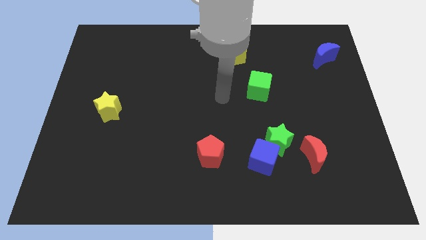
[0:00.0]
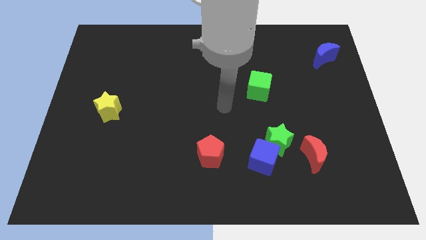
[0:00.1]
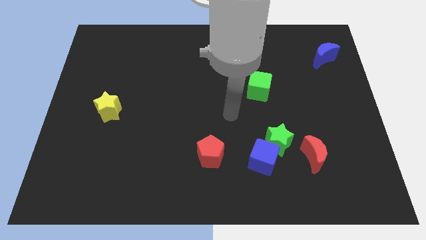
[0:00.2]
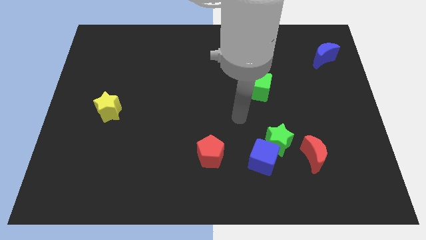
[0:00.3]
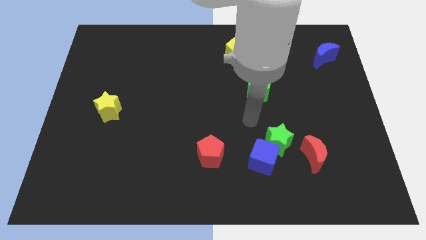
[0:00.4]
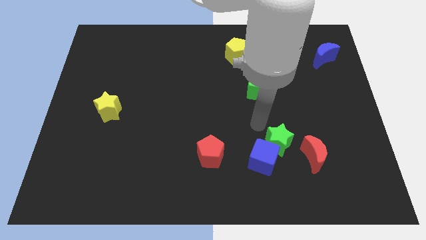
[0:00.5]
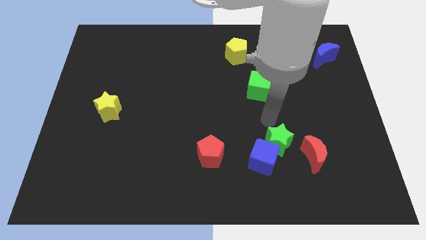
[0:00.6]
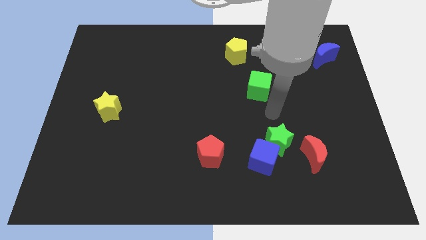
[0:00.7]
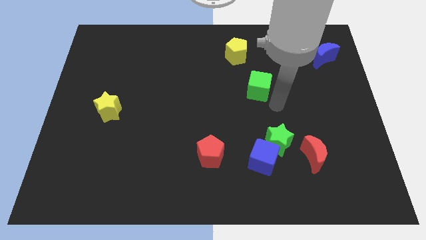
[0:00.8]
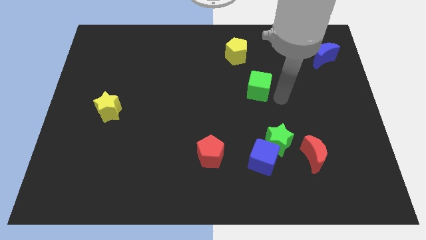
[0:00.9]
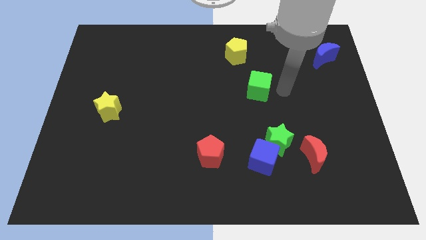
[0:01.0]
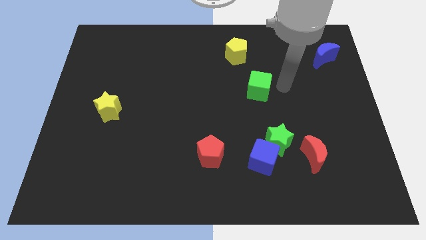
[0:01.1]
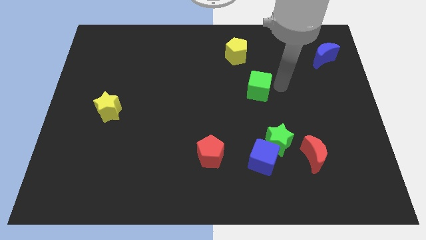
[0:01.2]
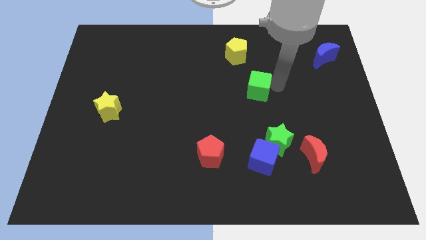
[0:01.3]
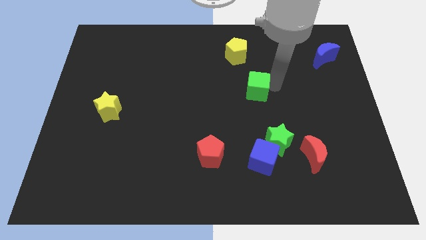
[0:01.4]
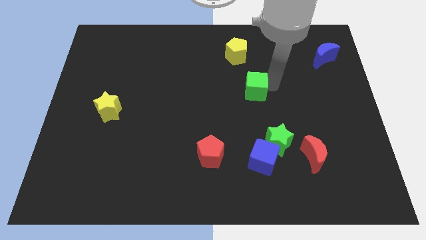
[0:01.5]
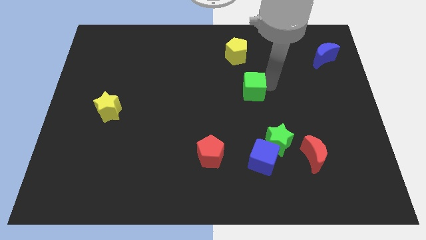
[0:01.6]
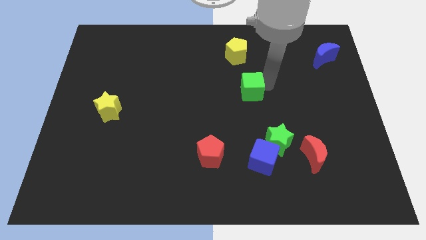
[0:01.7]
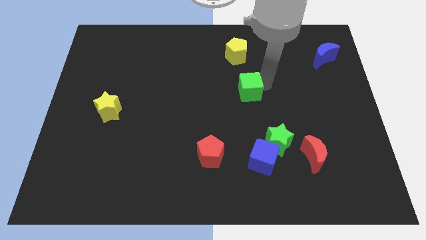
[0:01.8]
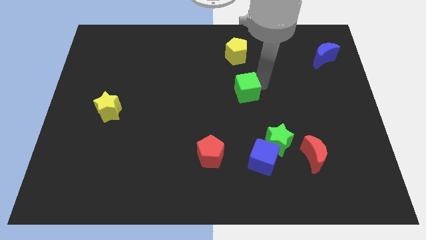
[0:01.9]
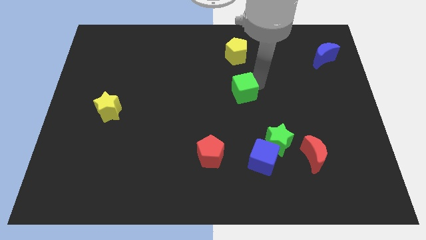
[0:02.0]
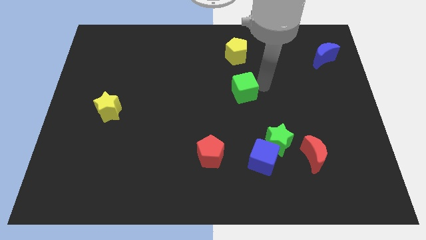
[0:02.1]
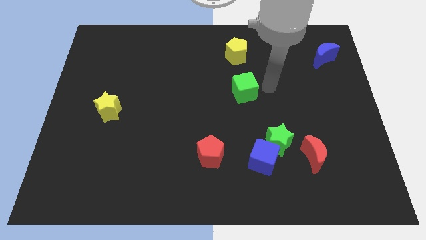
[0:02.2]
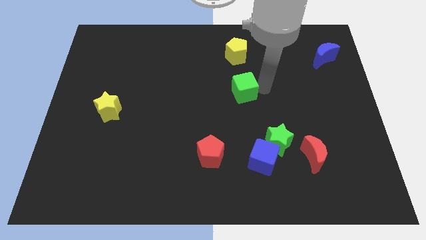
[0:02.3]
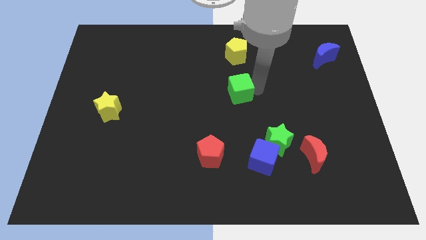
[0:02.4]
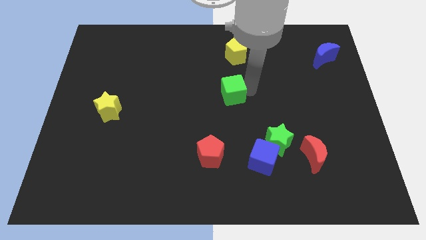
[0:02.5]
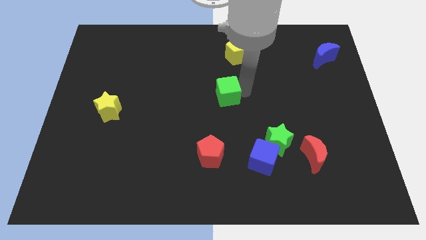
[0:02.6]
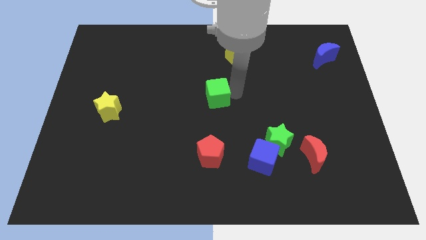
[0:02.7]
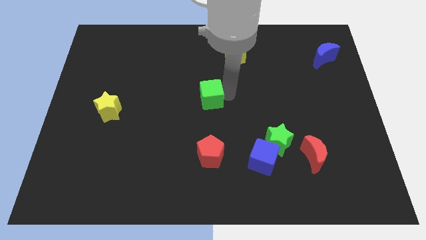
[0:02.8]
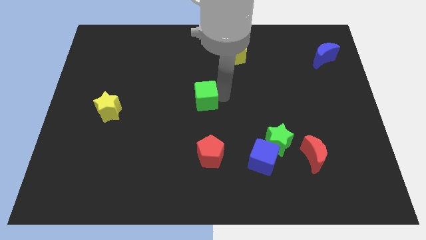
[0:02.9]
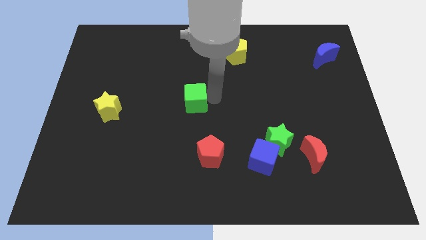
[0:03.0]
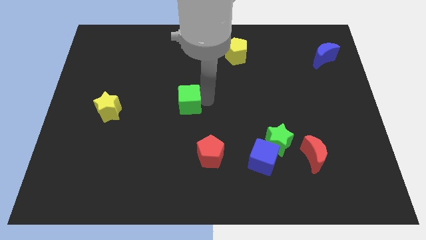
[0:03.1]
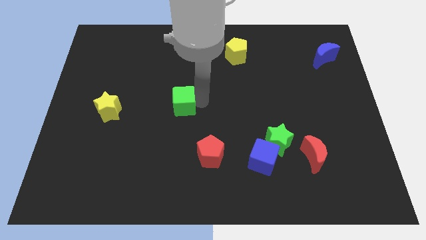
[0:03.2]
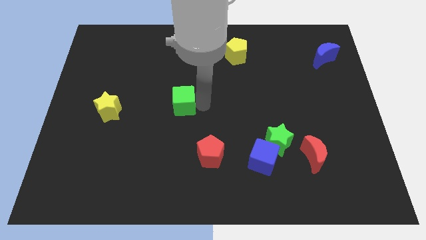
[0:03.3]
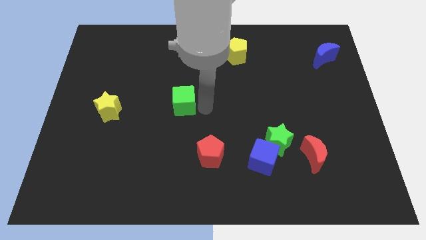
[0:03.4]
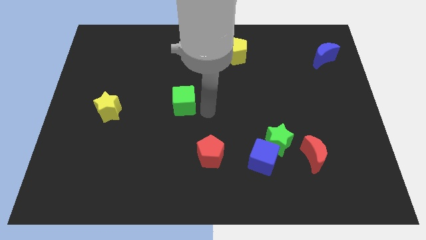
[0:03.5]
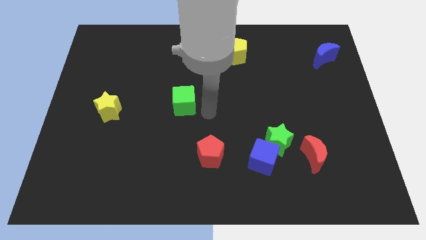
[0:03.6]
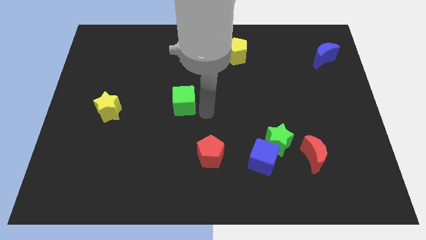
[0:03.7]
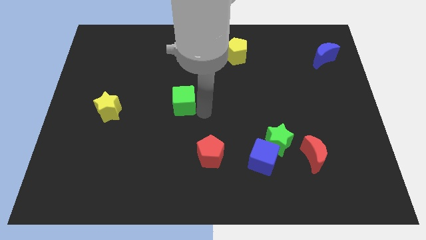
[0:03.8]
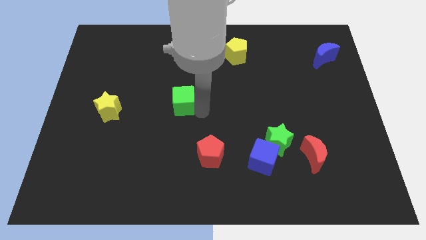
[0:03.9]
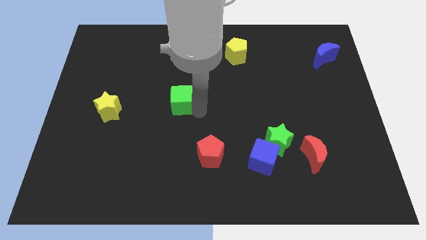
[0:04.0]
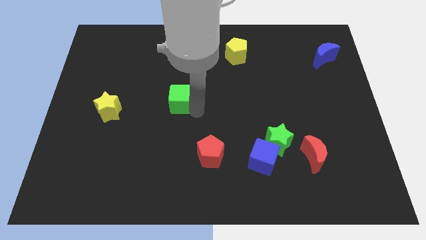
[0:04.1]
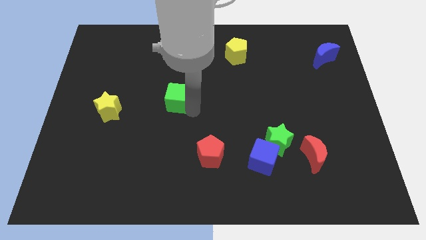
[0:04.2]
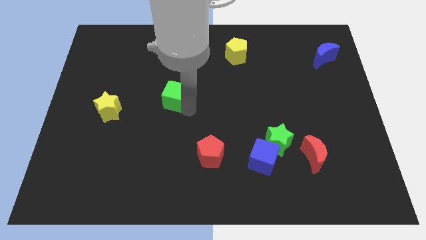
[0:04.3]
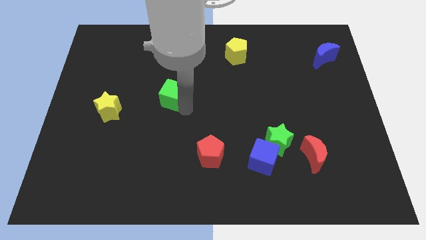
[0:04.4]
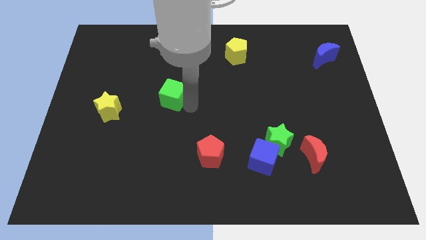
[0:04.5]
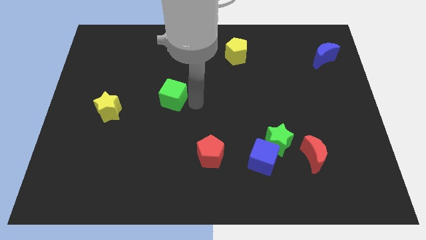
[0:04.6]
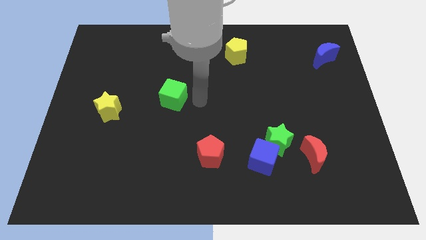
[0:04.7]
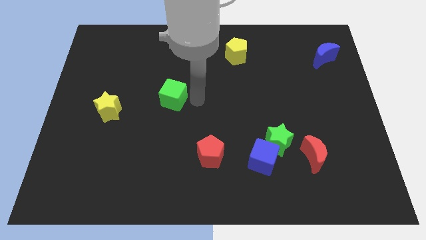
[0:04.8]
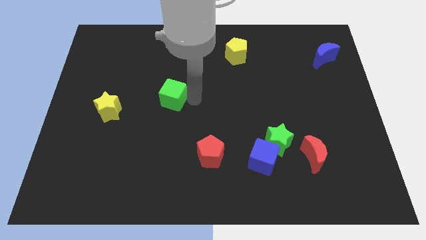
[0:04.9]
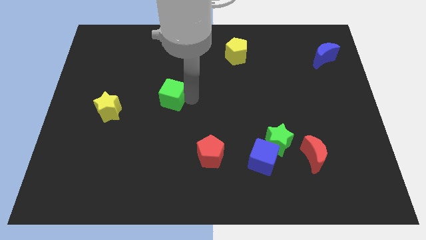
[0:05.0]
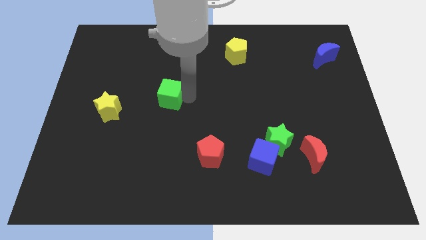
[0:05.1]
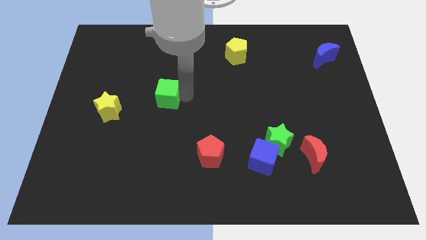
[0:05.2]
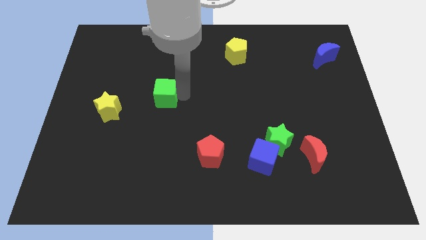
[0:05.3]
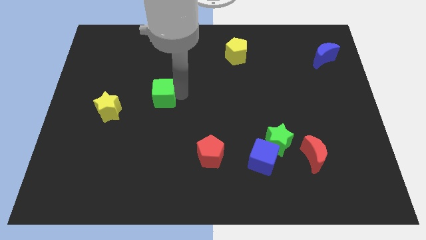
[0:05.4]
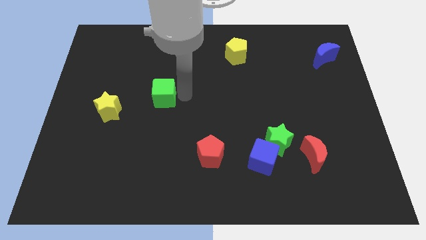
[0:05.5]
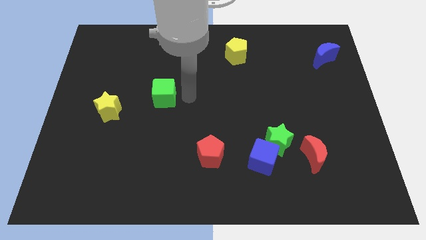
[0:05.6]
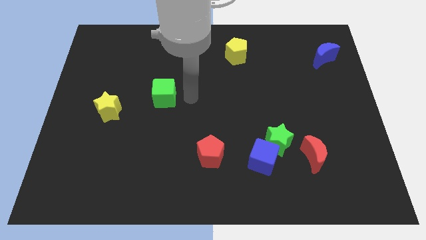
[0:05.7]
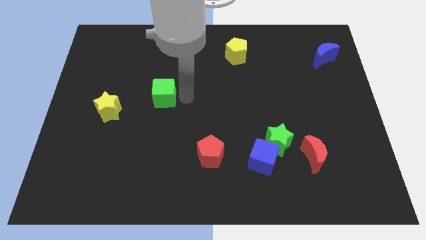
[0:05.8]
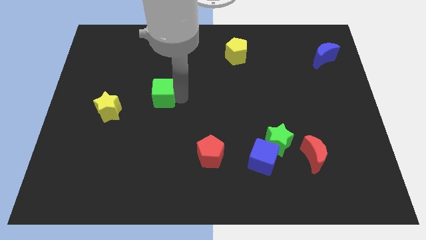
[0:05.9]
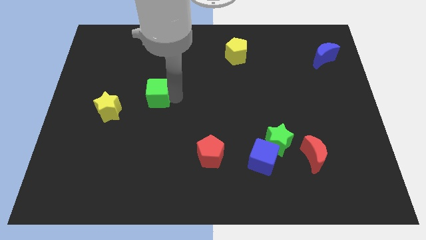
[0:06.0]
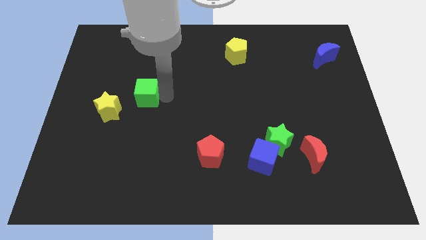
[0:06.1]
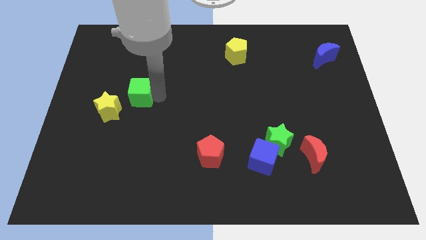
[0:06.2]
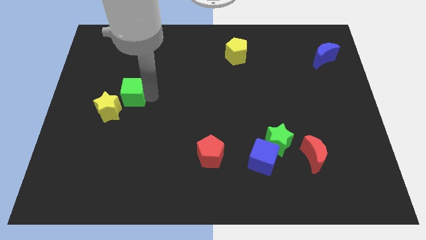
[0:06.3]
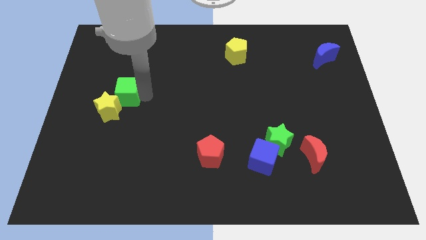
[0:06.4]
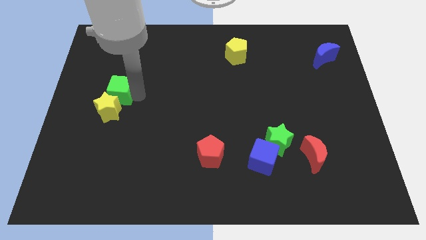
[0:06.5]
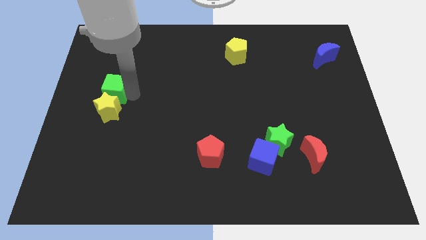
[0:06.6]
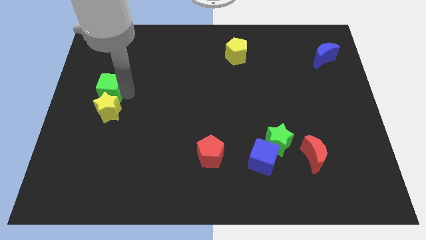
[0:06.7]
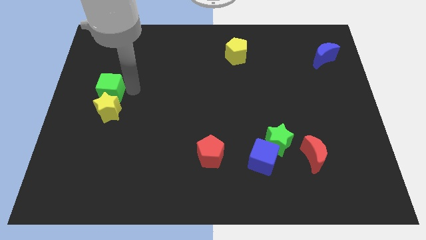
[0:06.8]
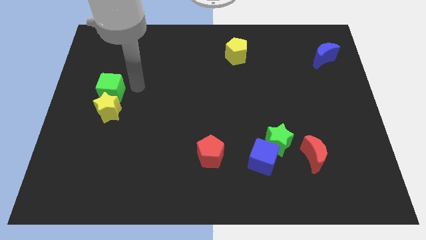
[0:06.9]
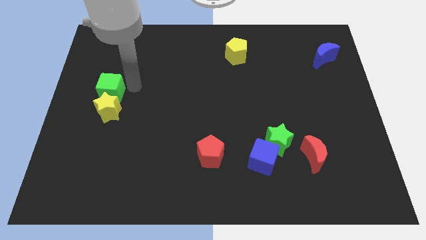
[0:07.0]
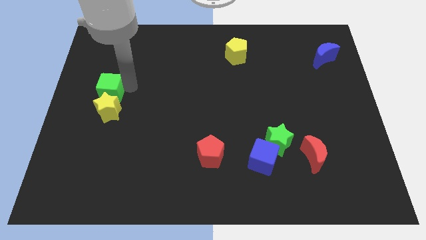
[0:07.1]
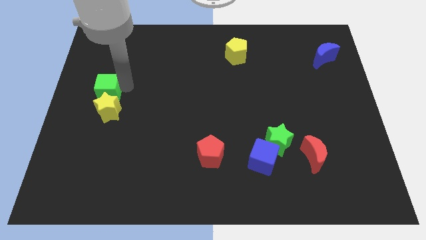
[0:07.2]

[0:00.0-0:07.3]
move the green cube to the left side of the board
